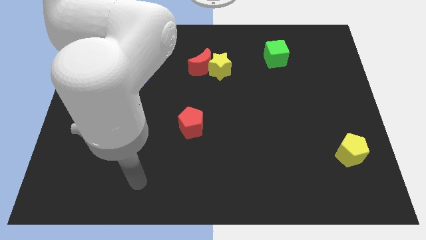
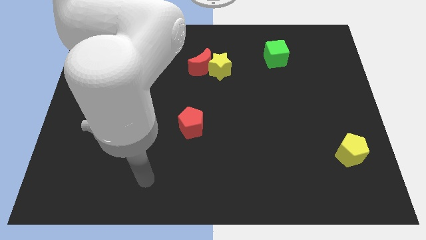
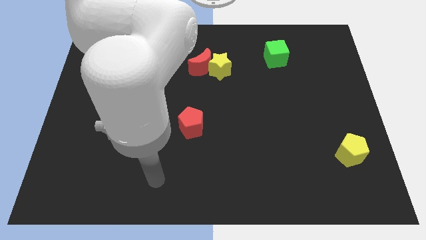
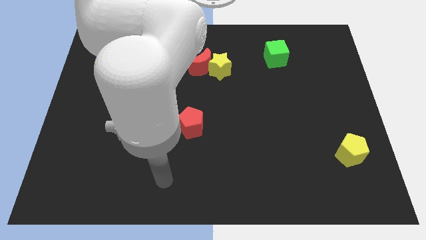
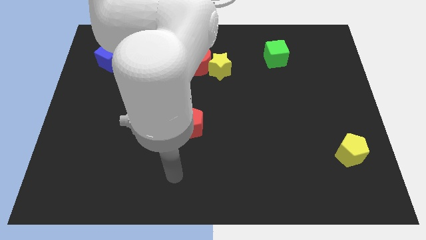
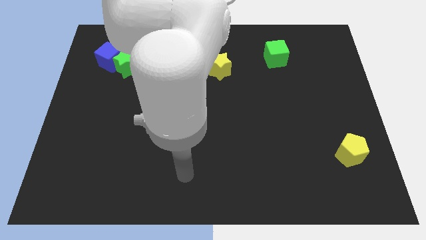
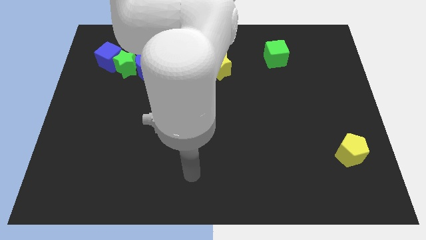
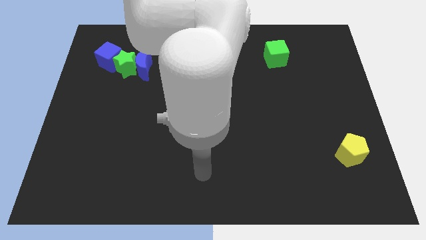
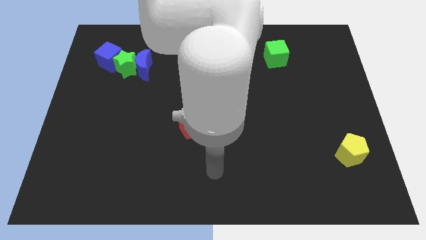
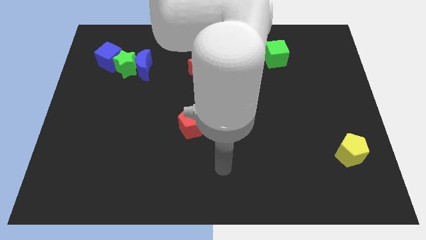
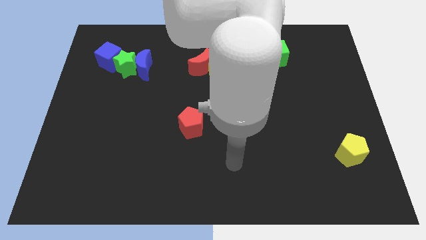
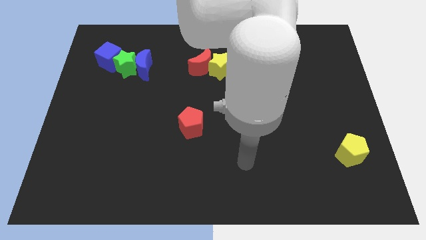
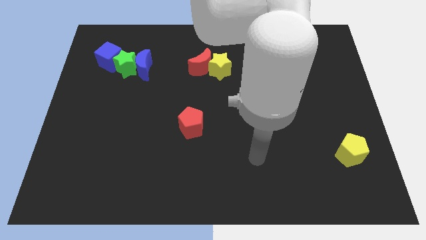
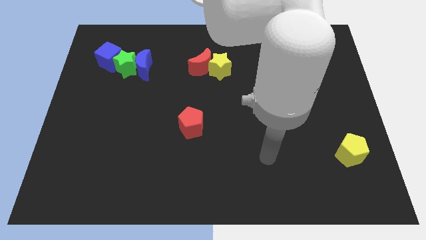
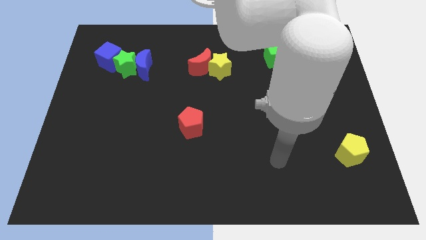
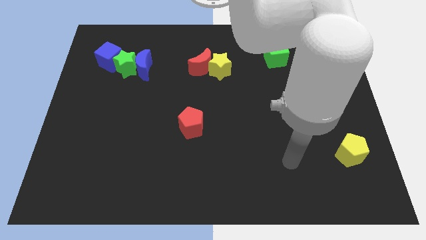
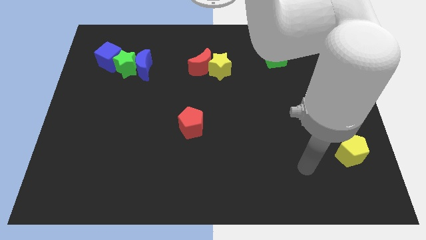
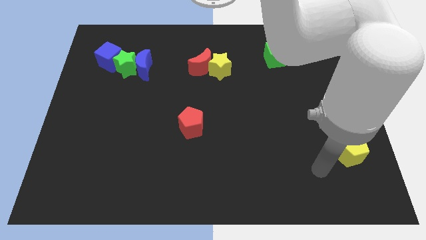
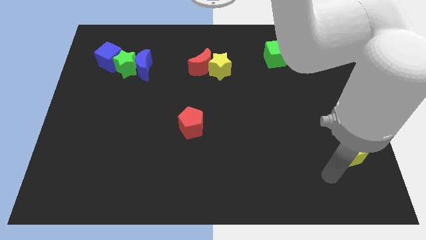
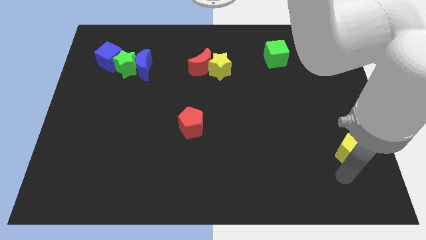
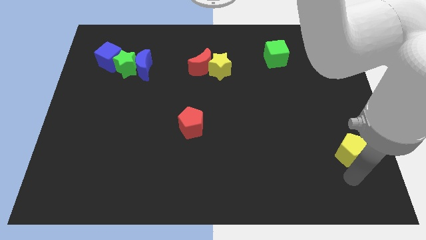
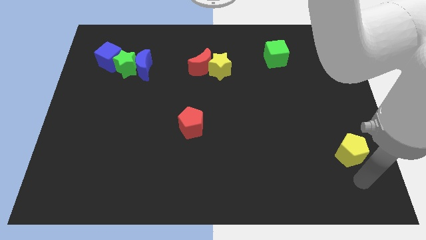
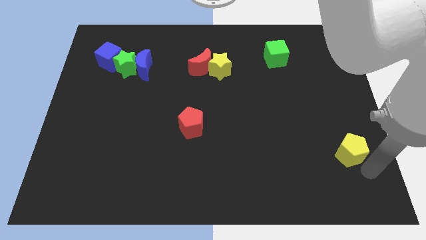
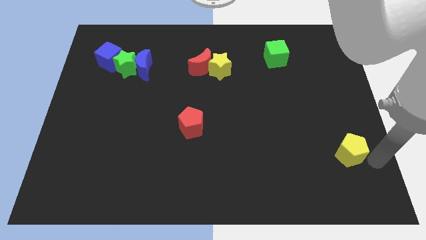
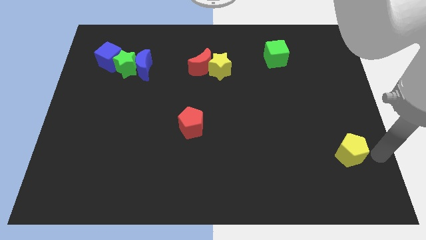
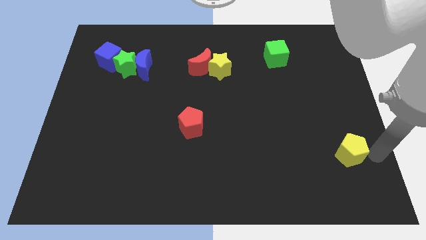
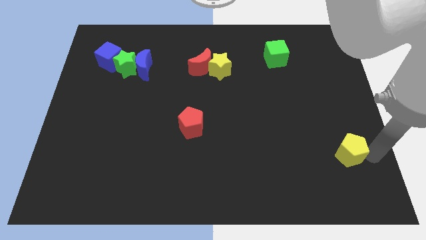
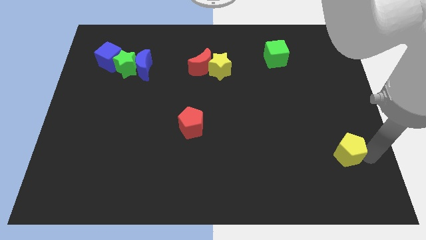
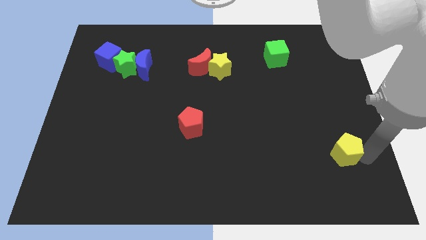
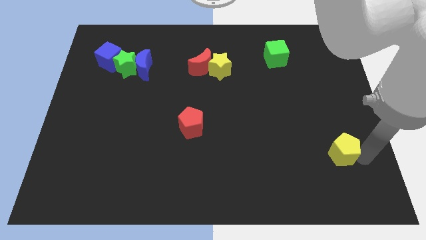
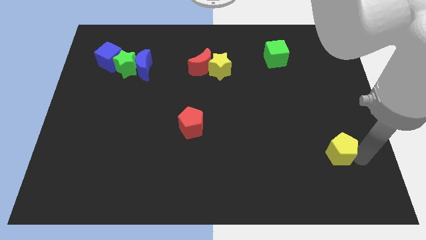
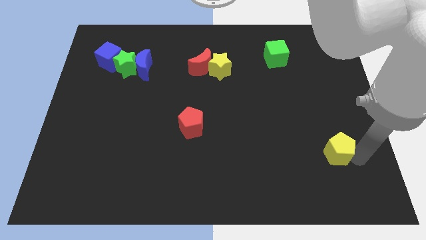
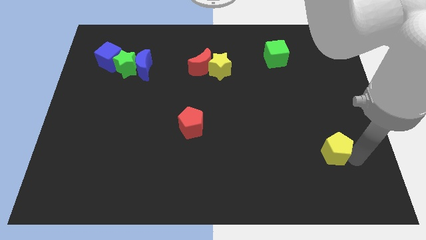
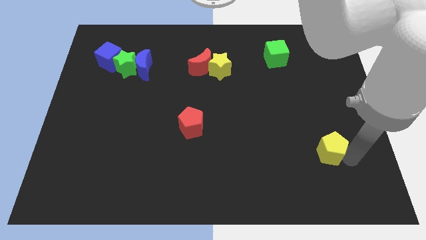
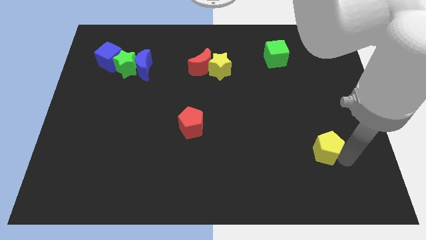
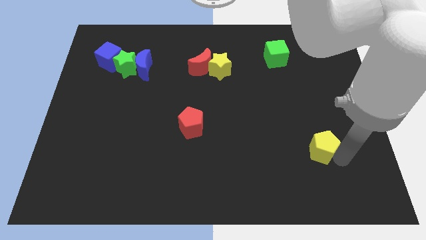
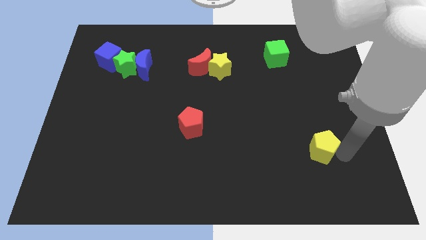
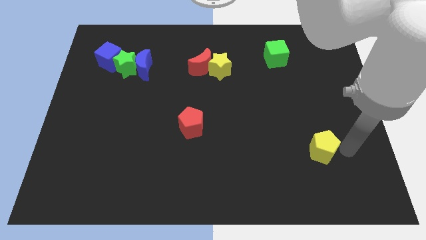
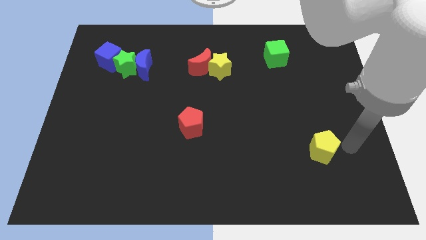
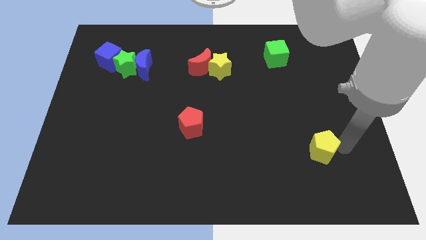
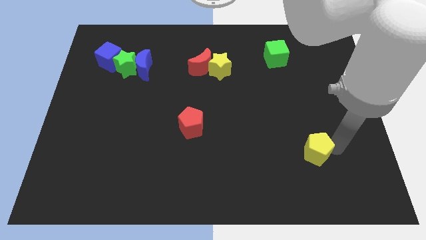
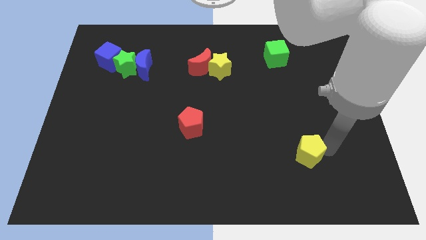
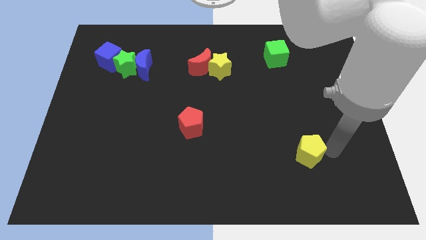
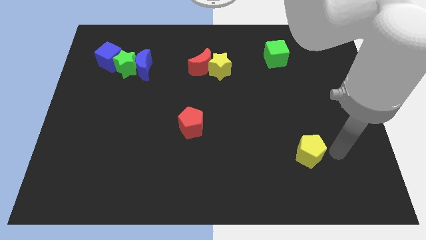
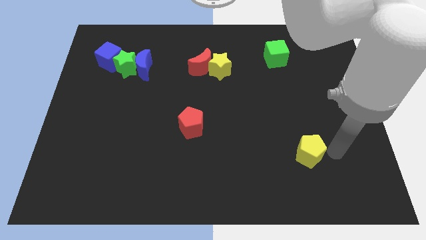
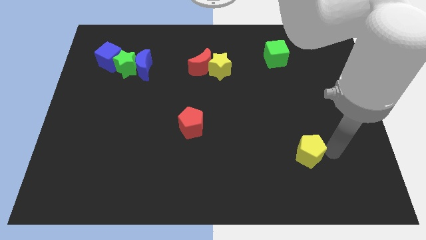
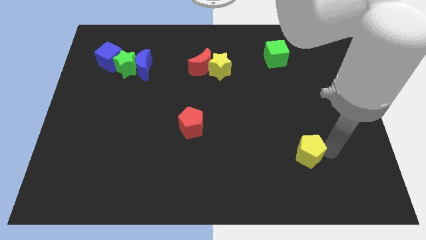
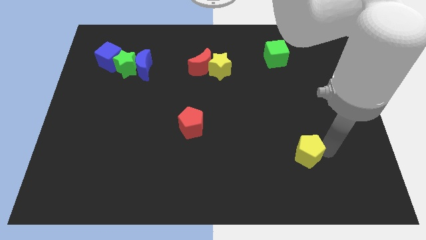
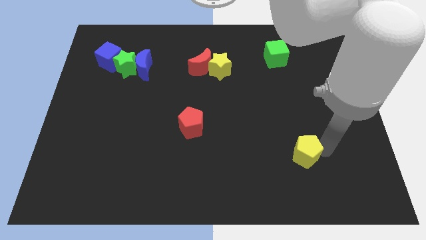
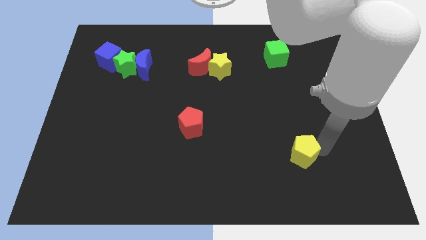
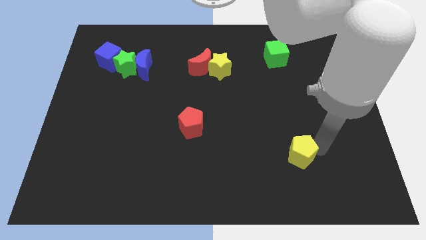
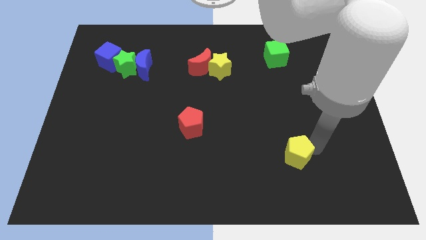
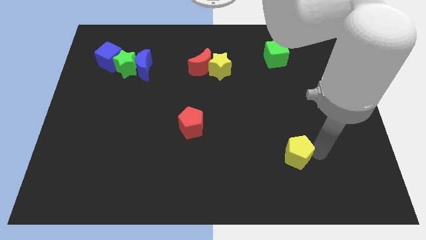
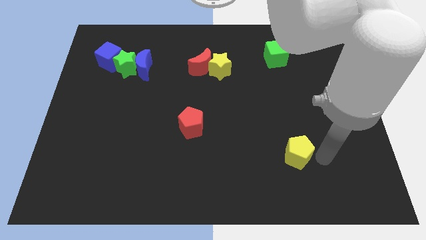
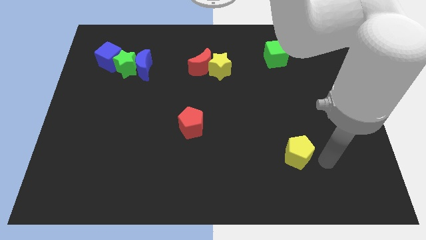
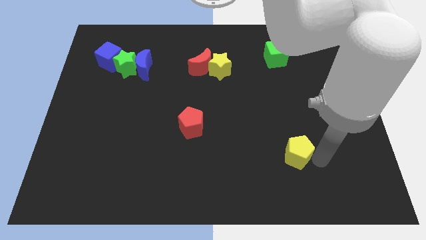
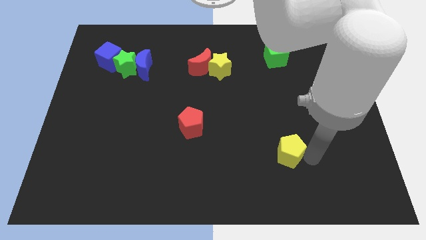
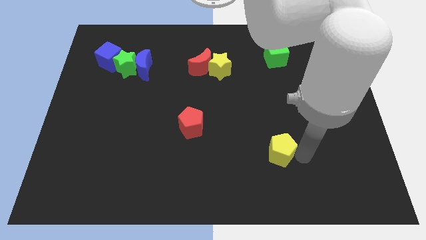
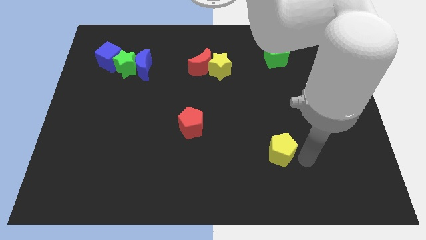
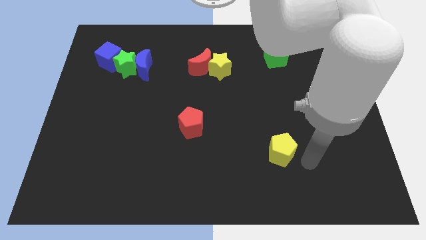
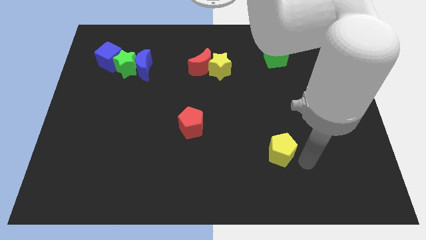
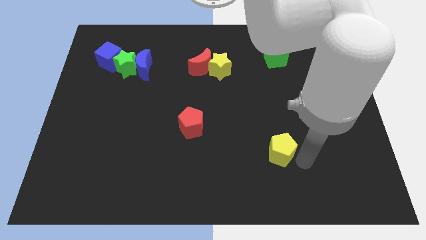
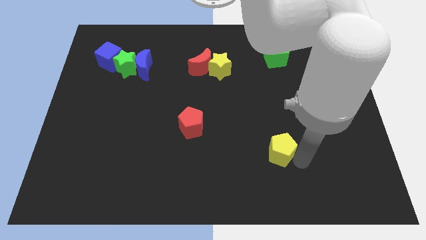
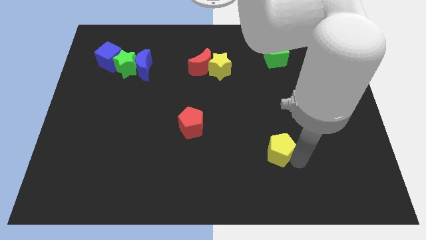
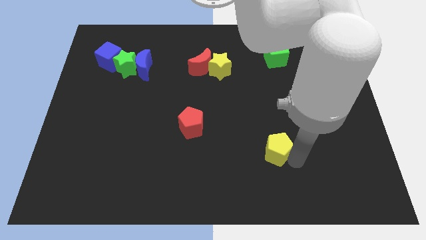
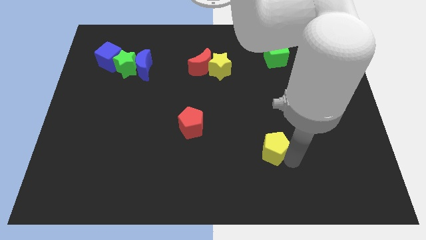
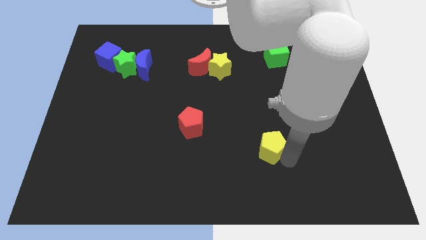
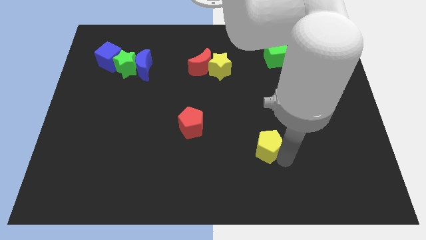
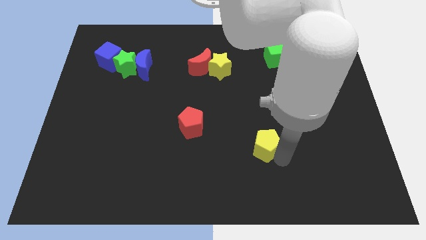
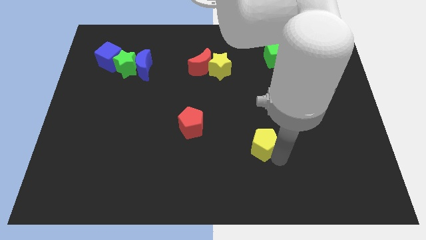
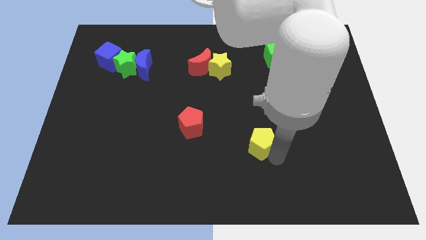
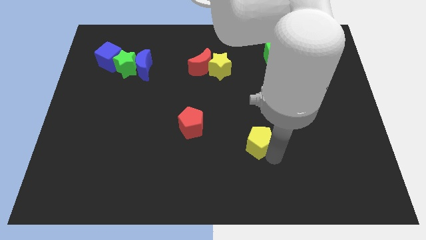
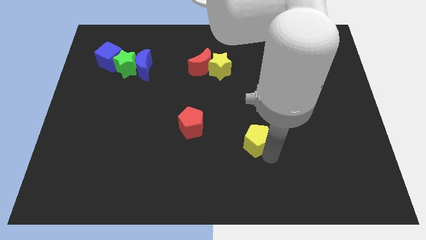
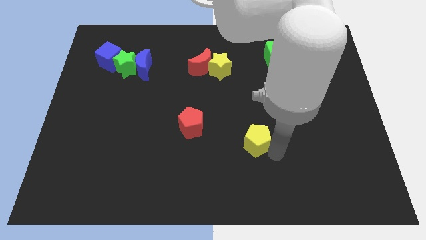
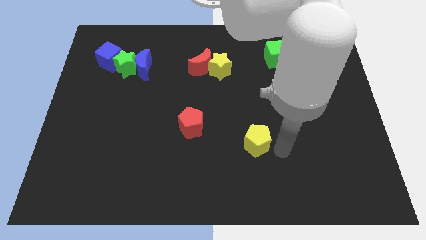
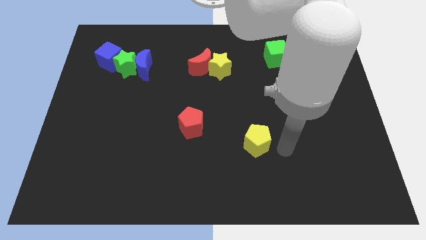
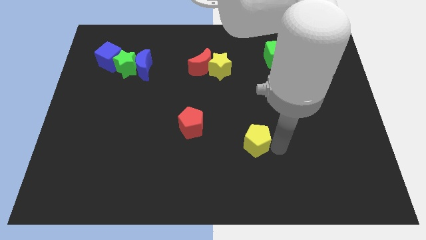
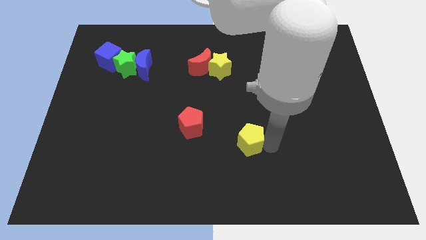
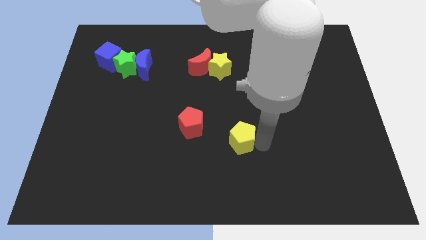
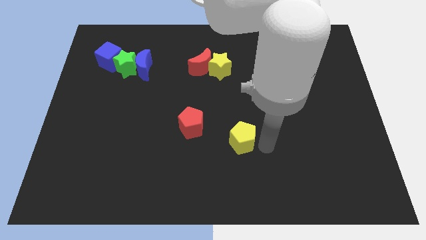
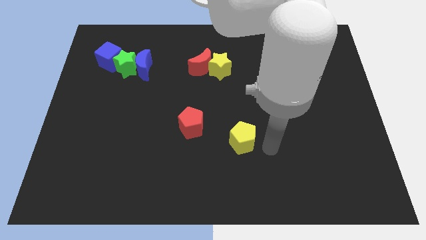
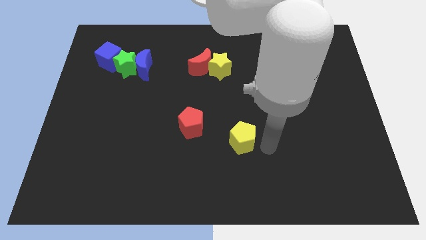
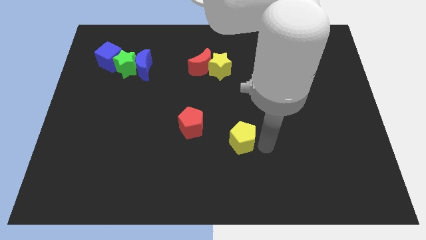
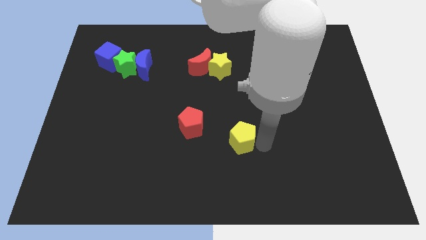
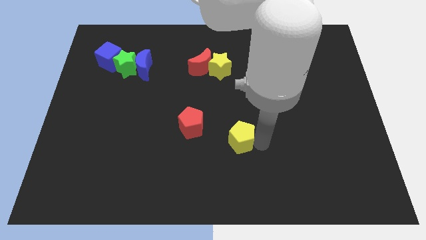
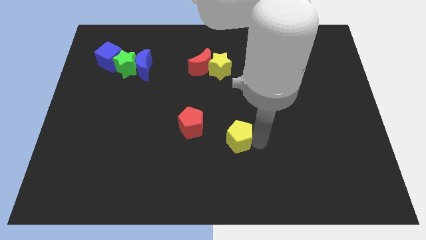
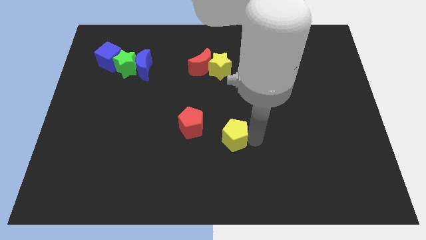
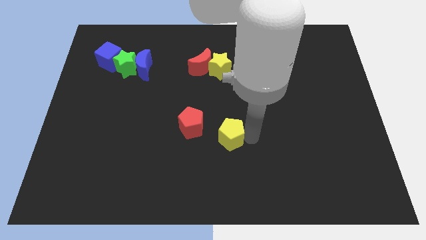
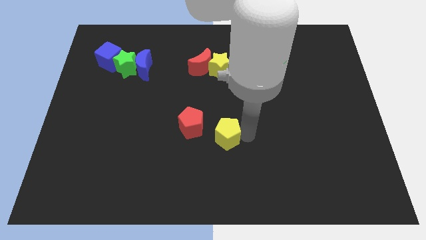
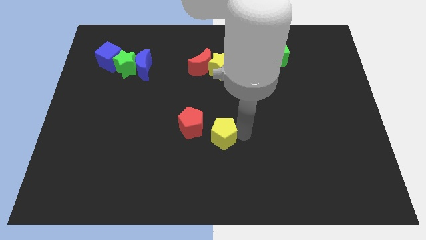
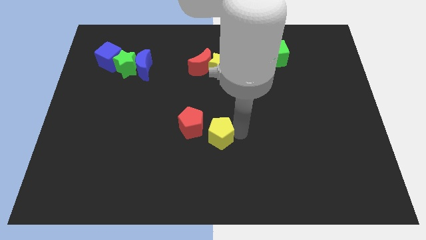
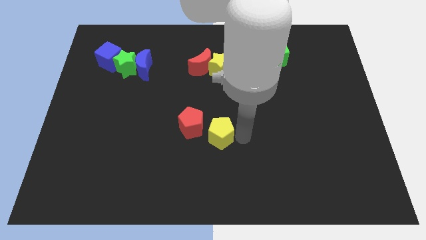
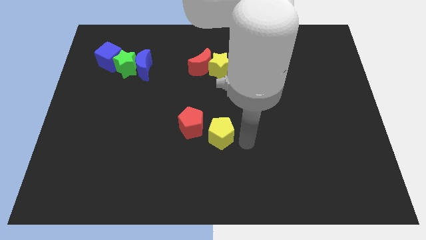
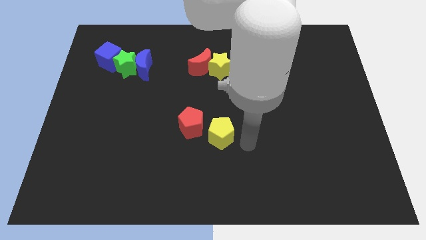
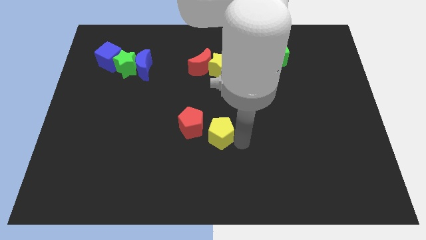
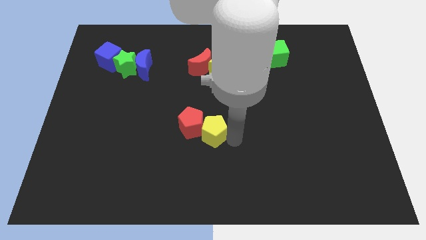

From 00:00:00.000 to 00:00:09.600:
move the yellow pentagon towards the red pentagon
